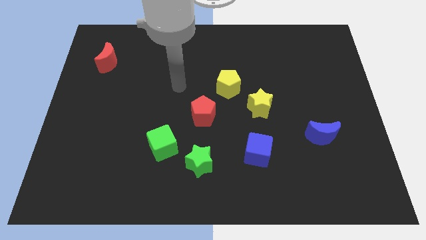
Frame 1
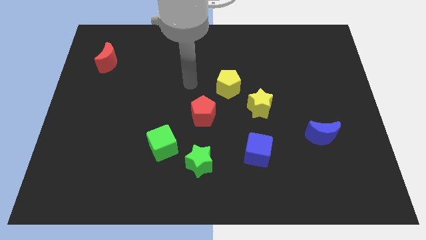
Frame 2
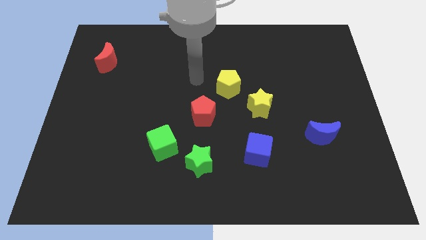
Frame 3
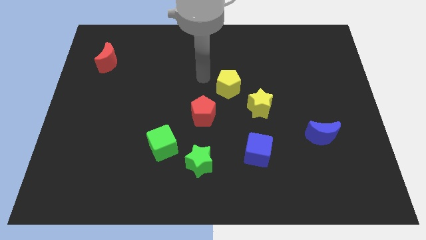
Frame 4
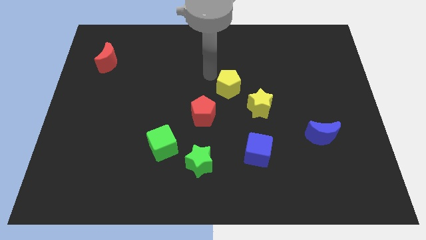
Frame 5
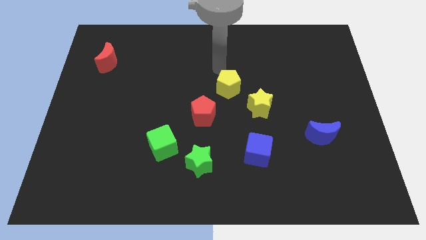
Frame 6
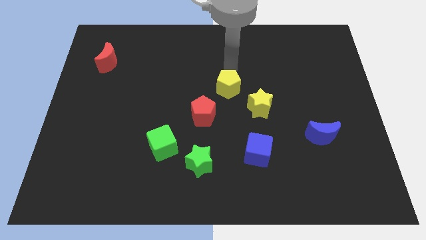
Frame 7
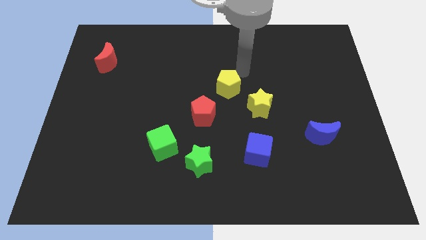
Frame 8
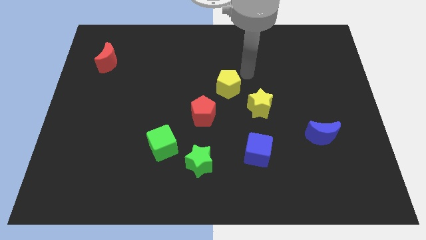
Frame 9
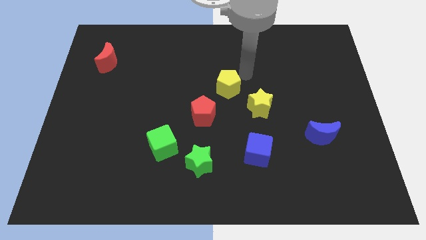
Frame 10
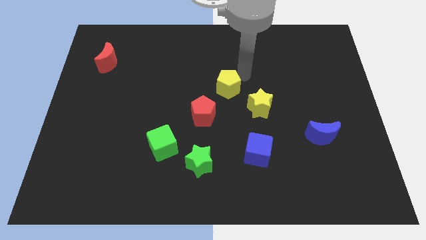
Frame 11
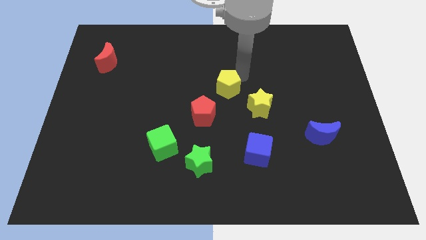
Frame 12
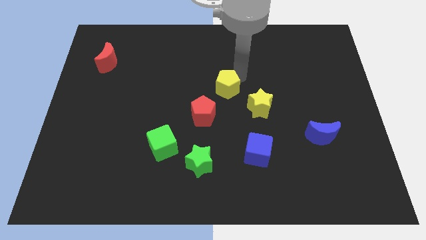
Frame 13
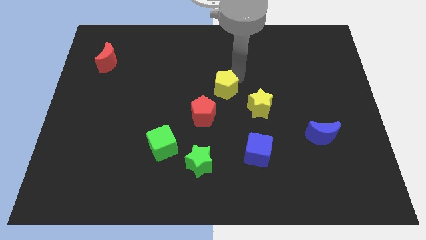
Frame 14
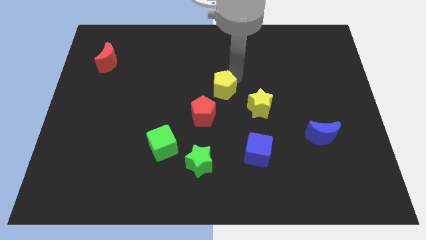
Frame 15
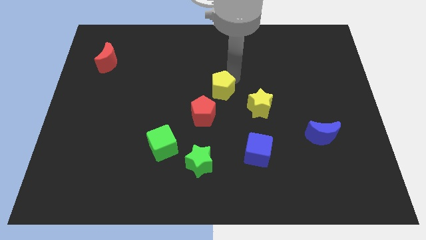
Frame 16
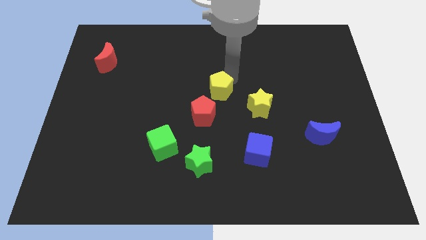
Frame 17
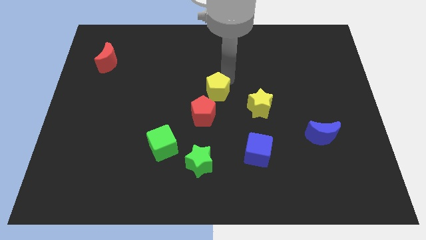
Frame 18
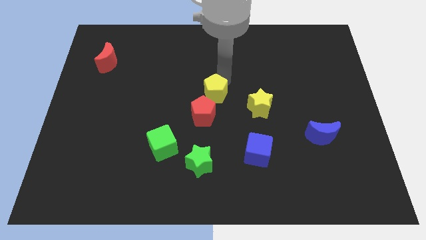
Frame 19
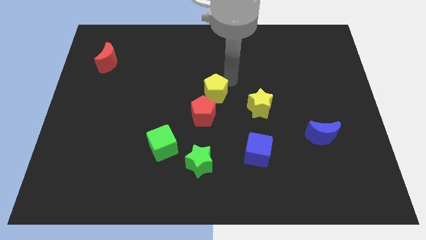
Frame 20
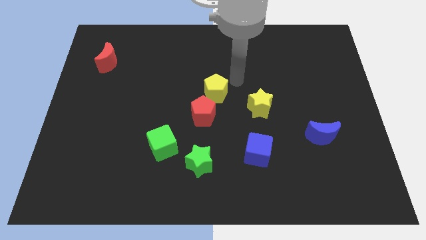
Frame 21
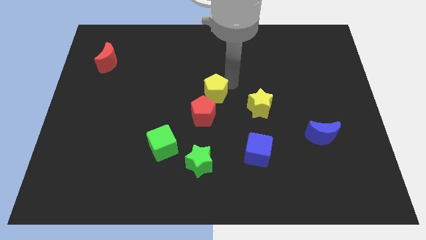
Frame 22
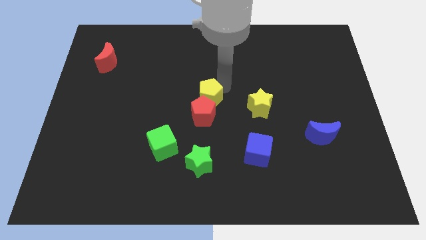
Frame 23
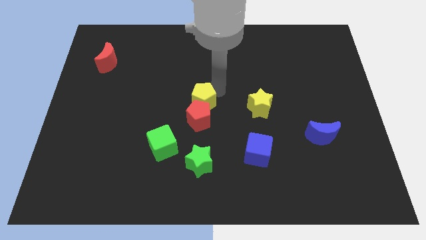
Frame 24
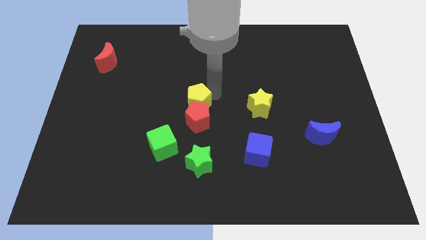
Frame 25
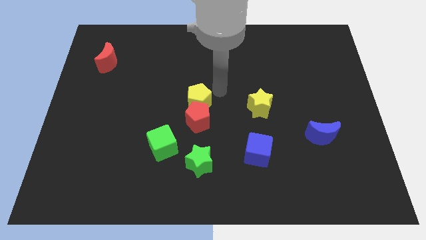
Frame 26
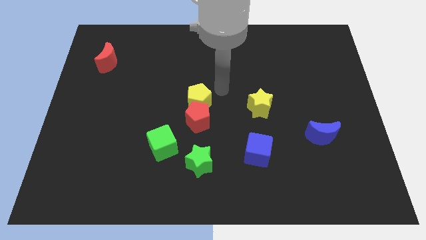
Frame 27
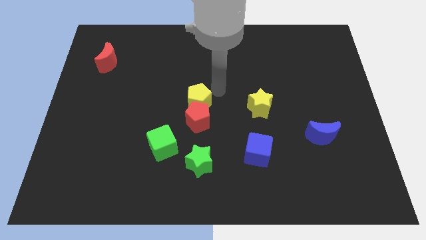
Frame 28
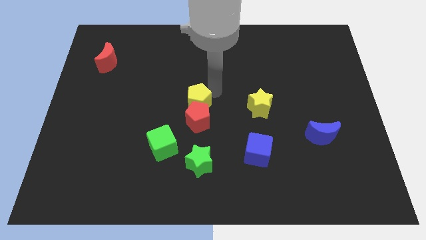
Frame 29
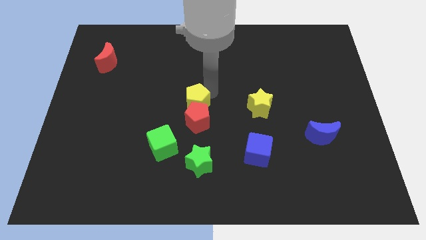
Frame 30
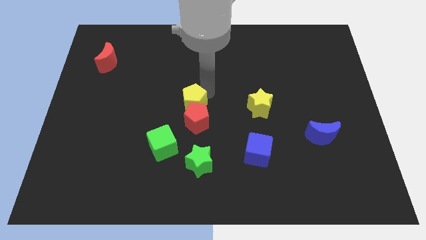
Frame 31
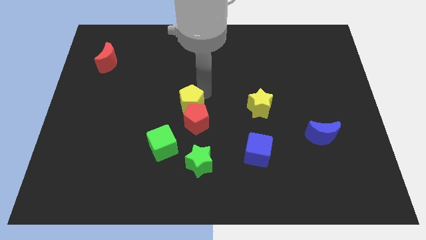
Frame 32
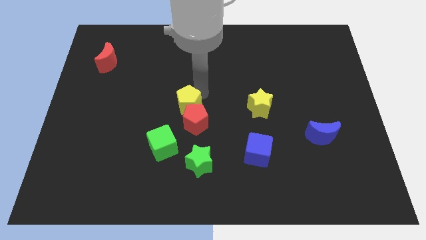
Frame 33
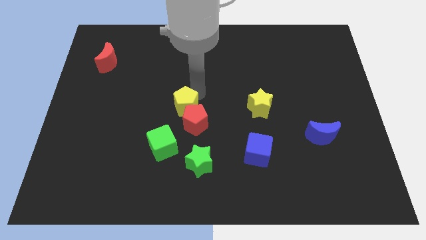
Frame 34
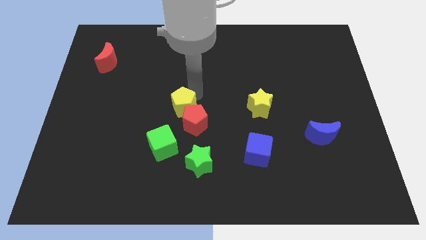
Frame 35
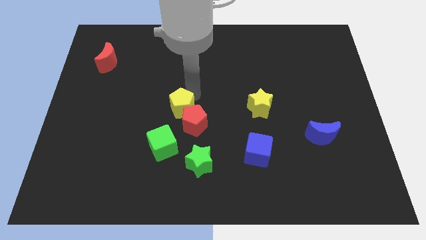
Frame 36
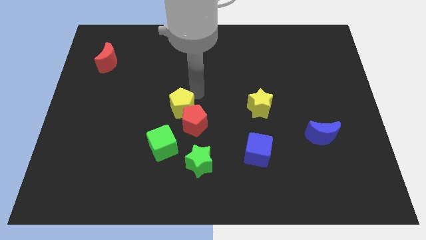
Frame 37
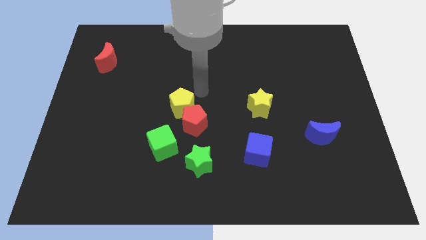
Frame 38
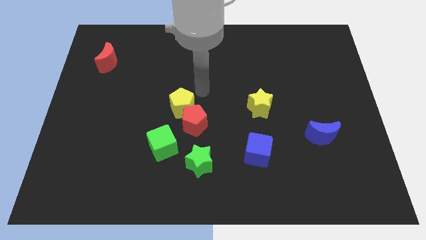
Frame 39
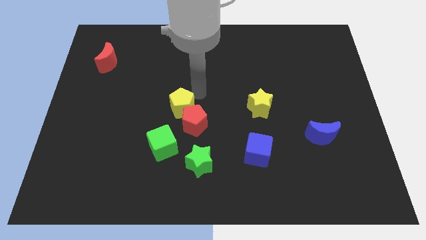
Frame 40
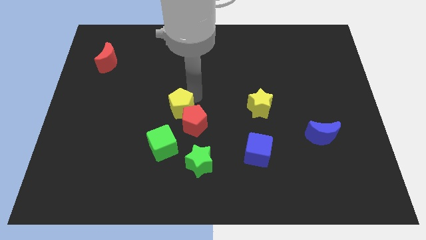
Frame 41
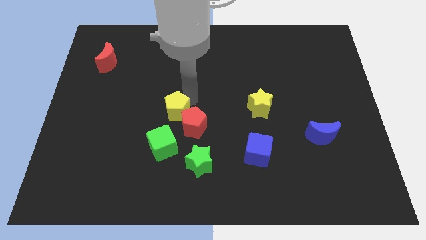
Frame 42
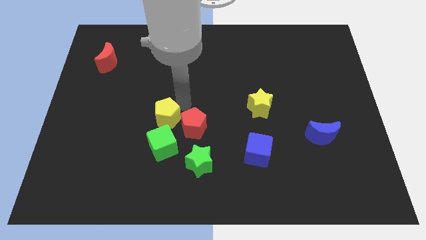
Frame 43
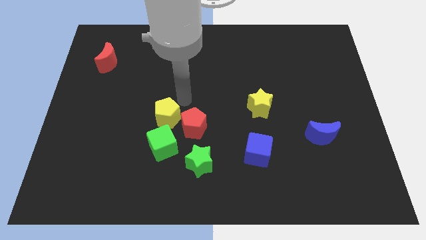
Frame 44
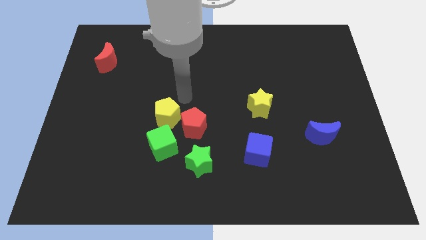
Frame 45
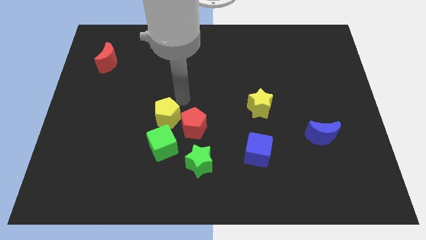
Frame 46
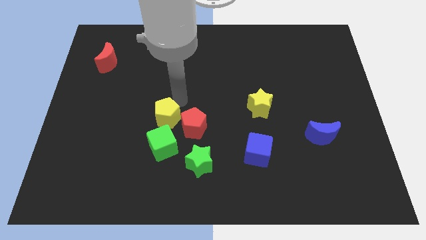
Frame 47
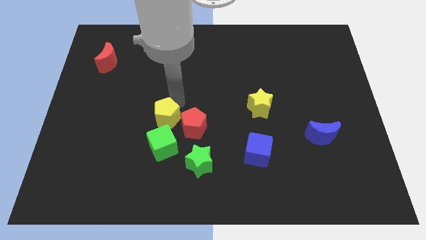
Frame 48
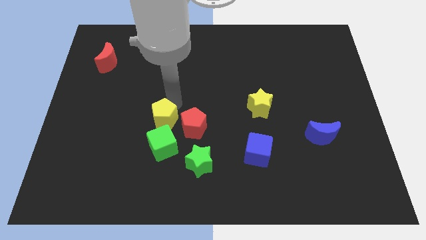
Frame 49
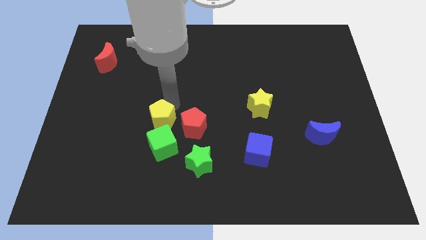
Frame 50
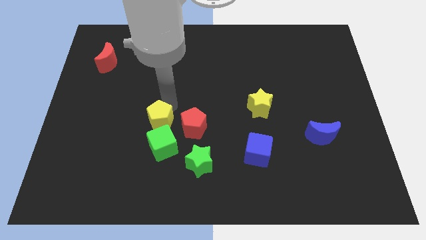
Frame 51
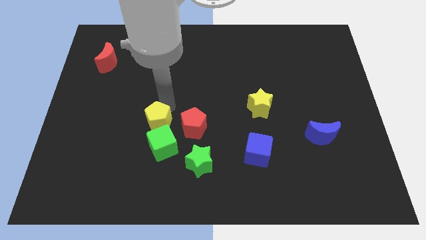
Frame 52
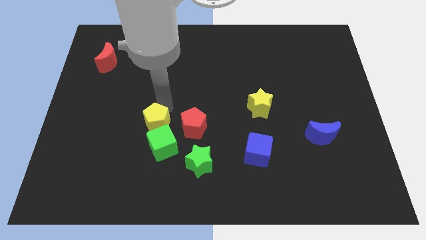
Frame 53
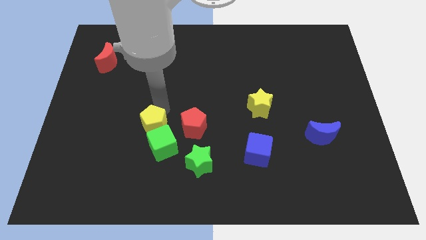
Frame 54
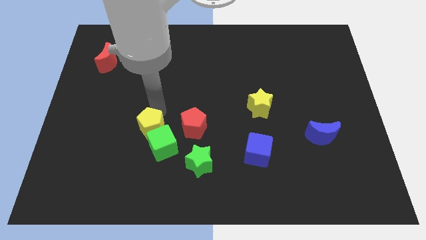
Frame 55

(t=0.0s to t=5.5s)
move the yellow pentagon down and then to the left

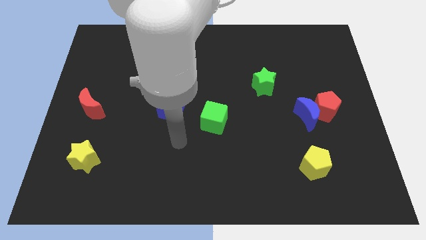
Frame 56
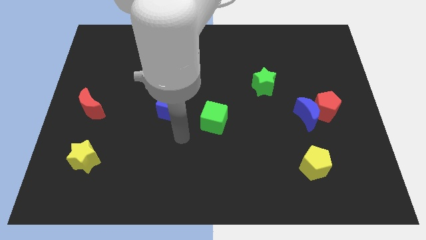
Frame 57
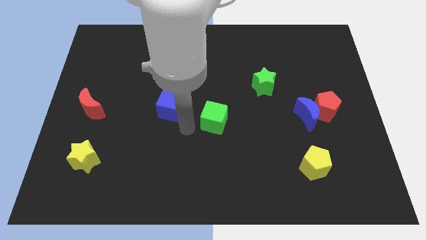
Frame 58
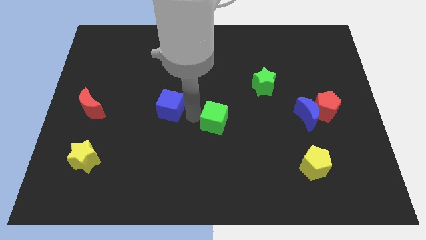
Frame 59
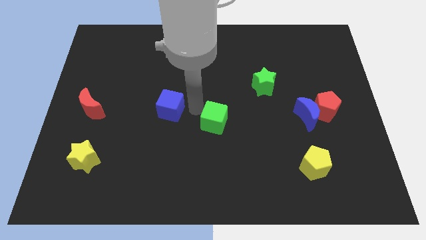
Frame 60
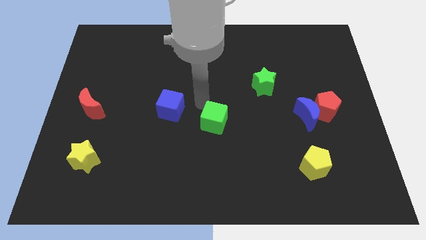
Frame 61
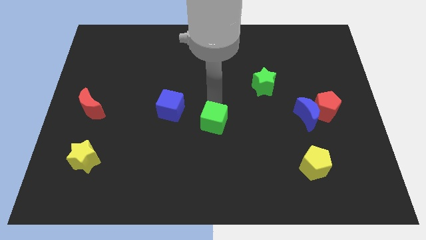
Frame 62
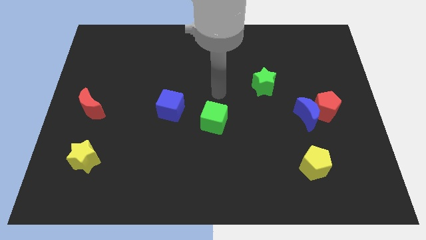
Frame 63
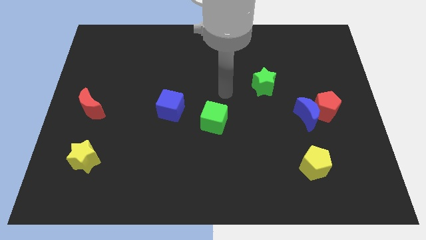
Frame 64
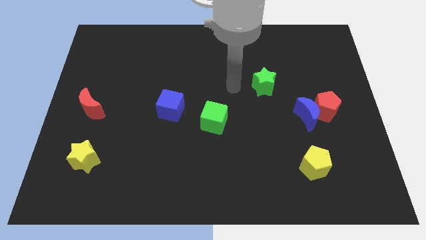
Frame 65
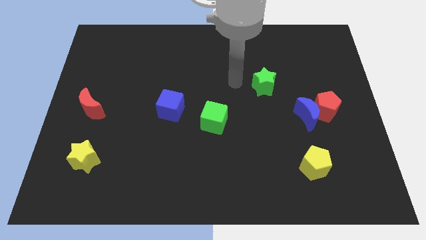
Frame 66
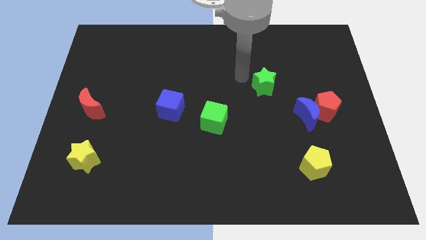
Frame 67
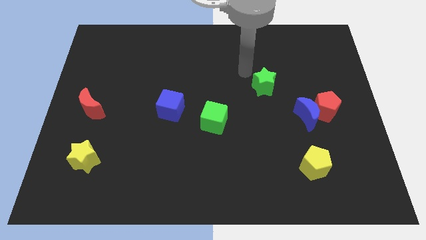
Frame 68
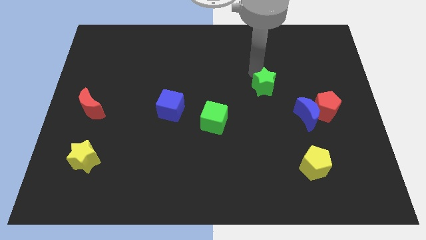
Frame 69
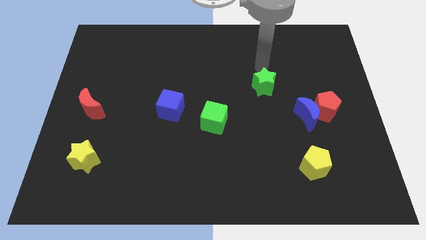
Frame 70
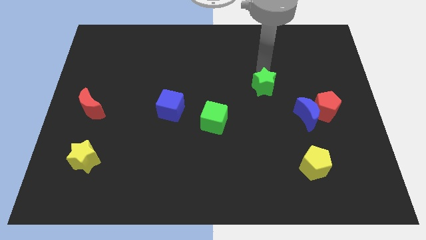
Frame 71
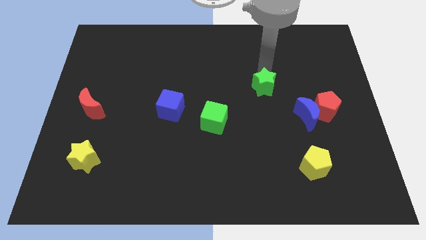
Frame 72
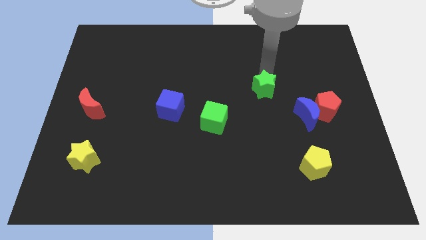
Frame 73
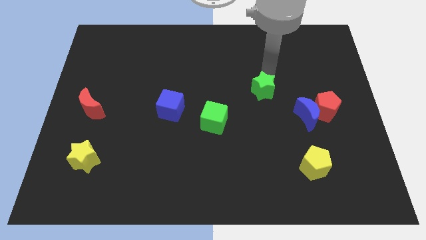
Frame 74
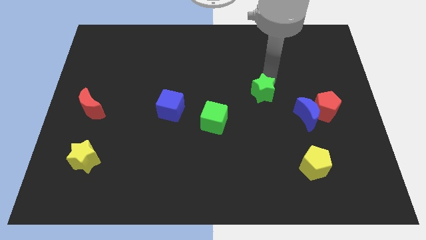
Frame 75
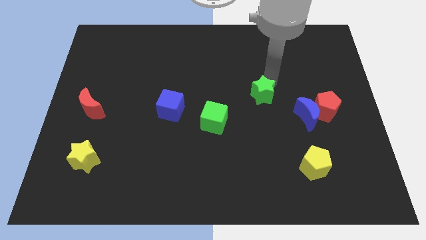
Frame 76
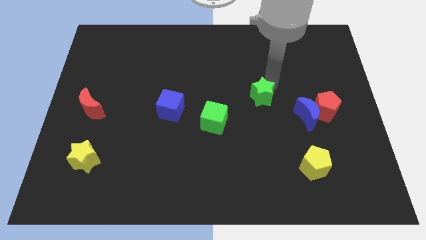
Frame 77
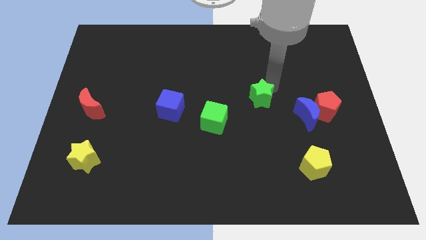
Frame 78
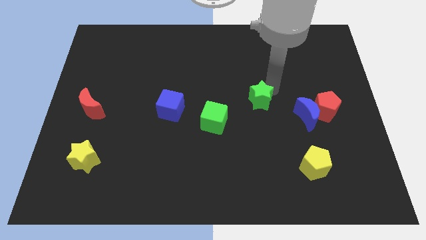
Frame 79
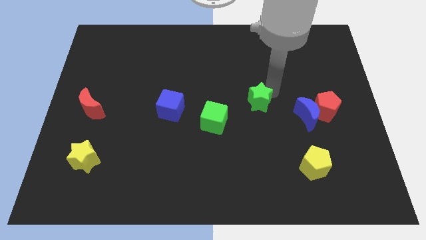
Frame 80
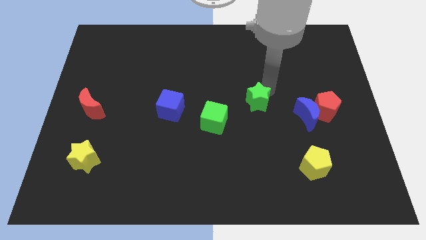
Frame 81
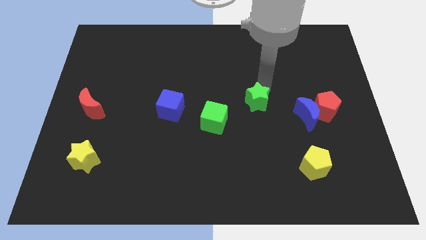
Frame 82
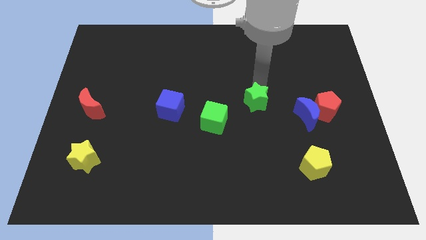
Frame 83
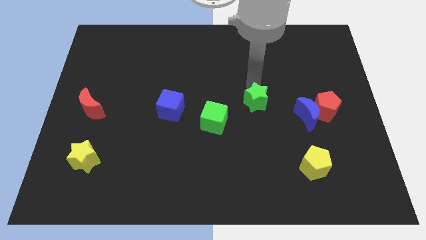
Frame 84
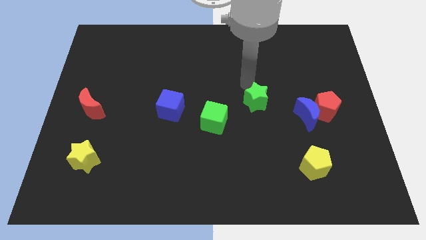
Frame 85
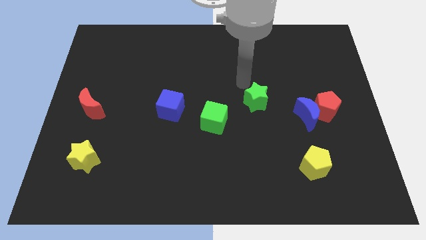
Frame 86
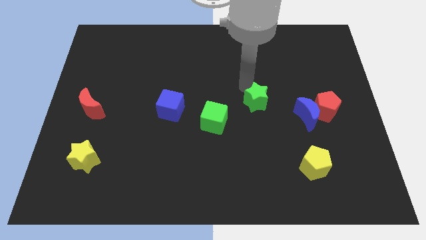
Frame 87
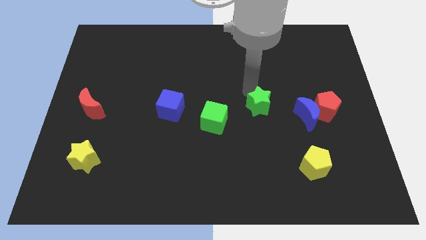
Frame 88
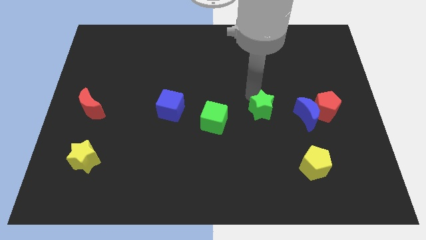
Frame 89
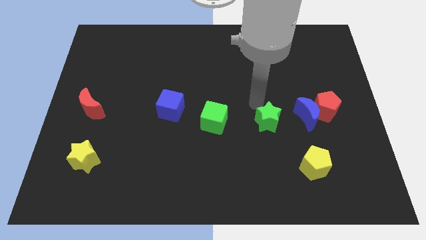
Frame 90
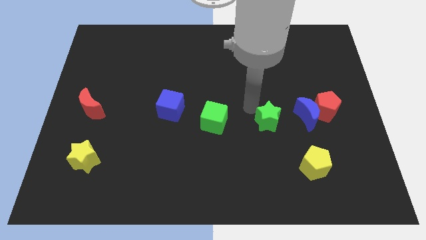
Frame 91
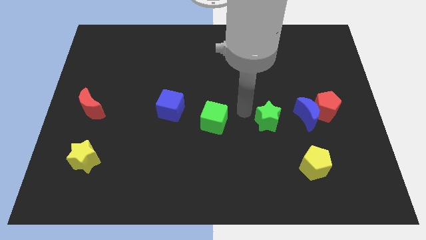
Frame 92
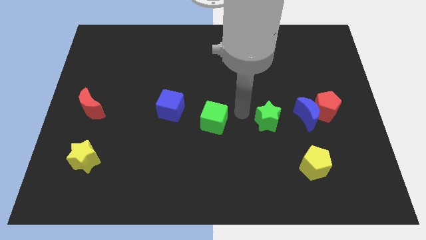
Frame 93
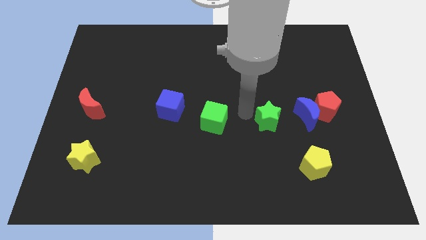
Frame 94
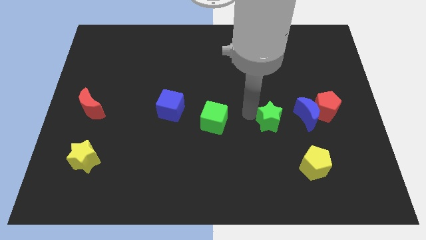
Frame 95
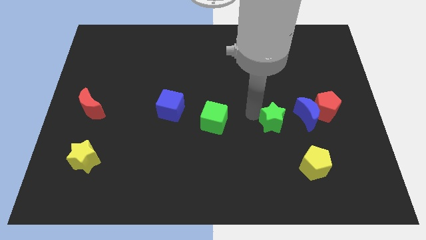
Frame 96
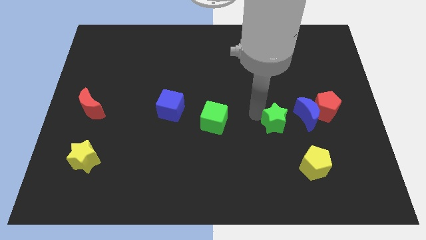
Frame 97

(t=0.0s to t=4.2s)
push the green star downwards and to the right somewhat
